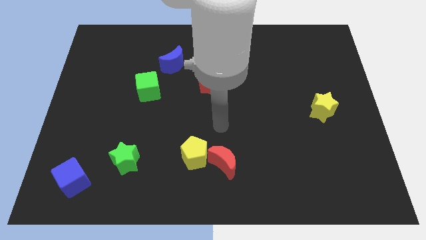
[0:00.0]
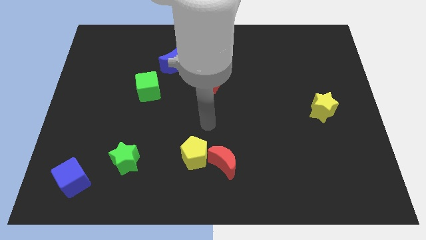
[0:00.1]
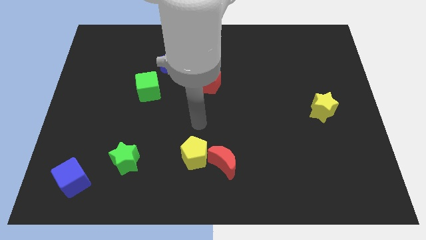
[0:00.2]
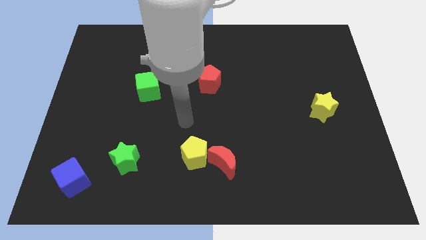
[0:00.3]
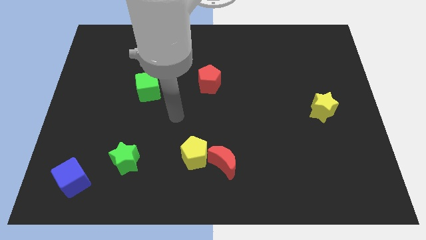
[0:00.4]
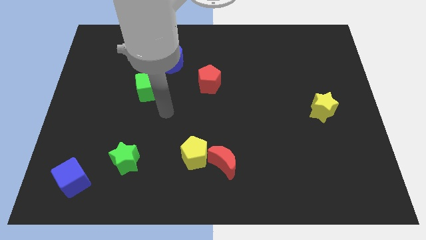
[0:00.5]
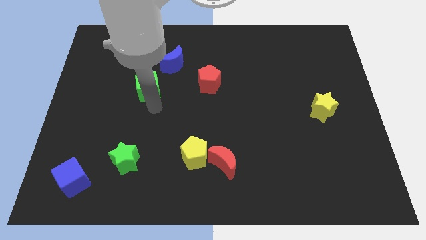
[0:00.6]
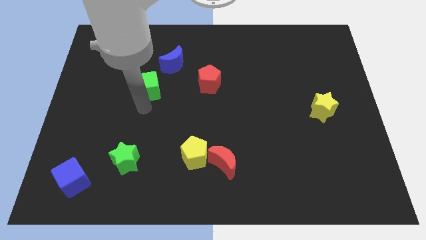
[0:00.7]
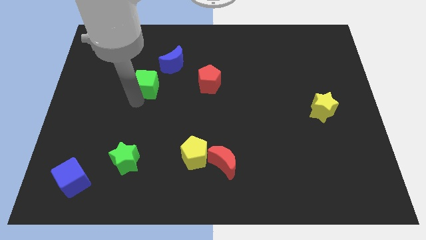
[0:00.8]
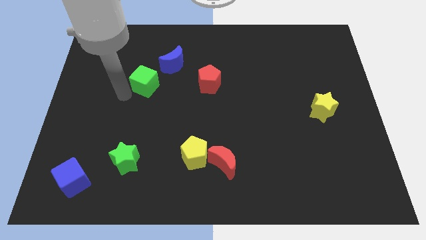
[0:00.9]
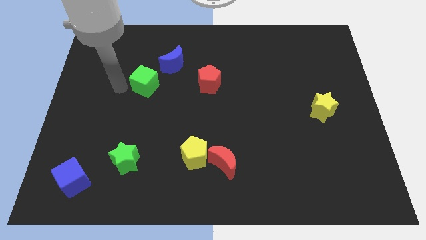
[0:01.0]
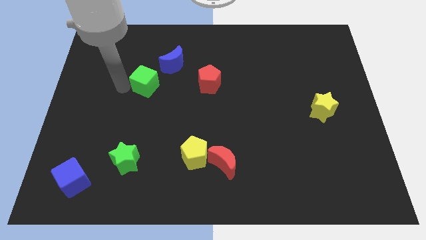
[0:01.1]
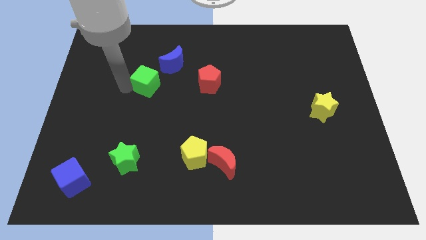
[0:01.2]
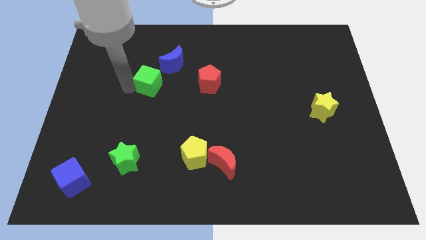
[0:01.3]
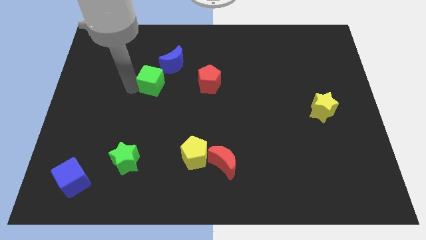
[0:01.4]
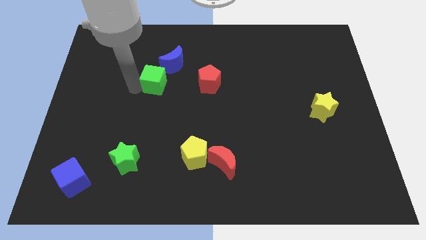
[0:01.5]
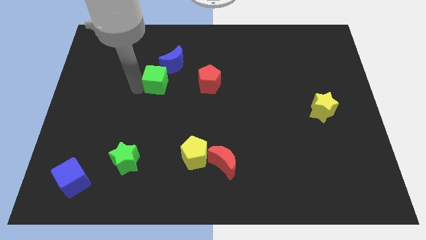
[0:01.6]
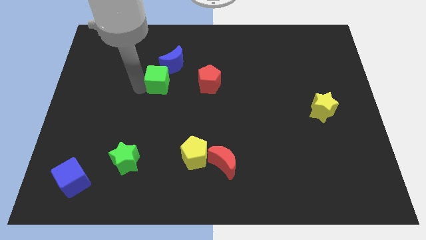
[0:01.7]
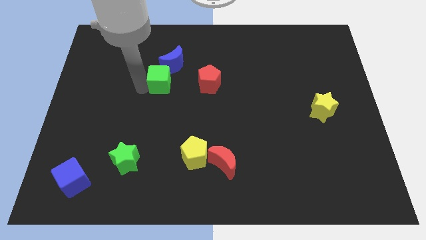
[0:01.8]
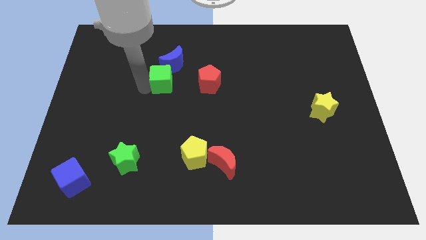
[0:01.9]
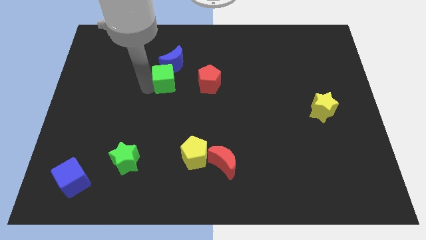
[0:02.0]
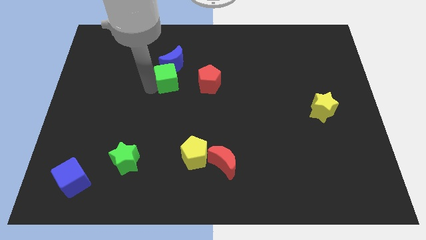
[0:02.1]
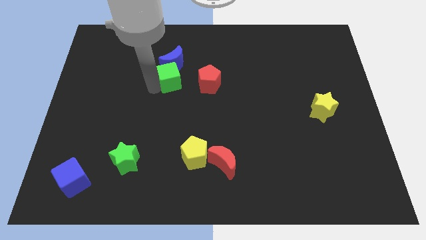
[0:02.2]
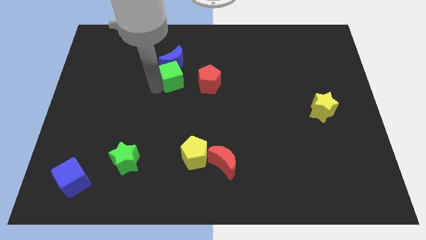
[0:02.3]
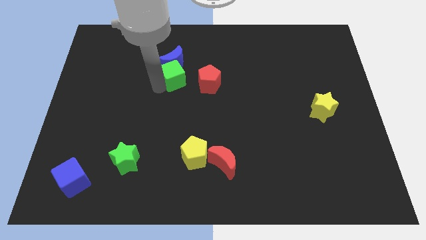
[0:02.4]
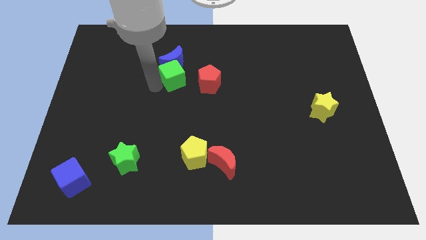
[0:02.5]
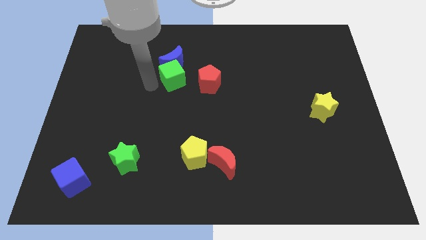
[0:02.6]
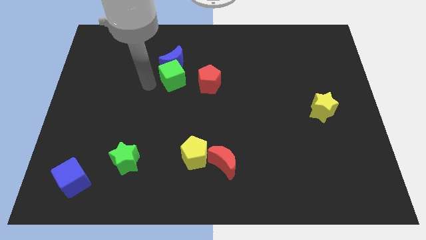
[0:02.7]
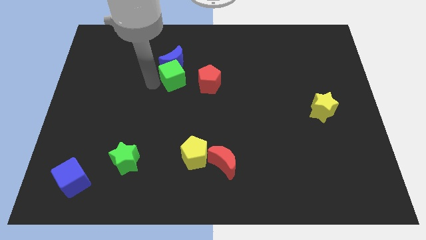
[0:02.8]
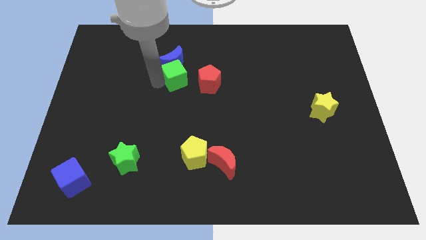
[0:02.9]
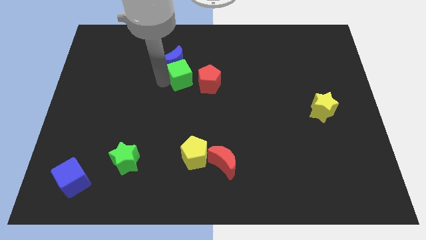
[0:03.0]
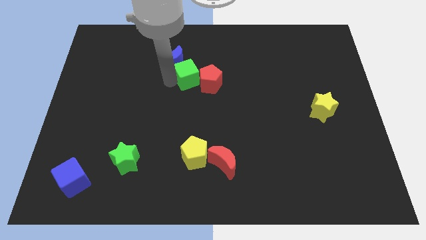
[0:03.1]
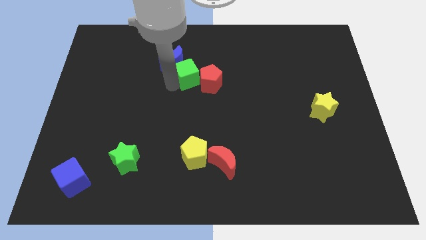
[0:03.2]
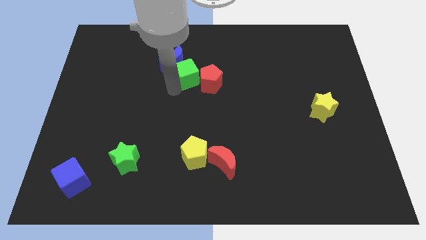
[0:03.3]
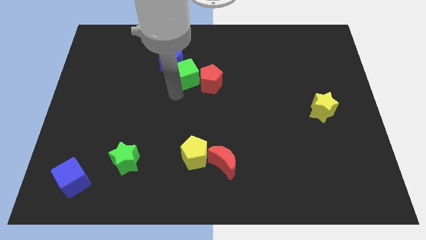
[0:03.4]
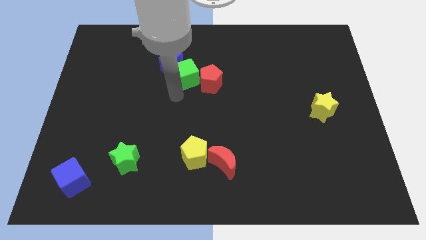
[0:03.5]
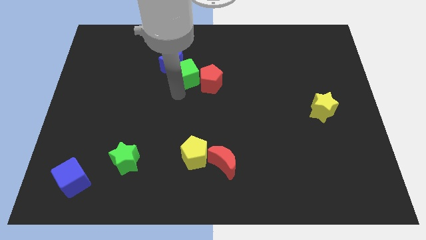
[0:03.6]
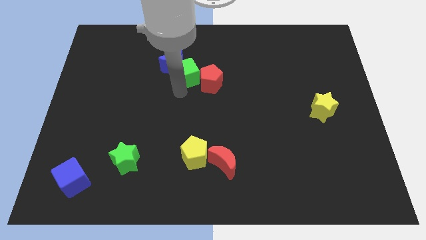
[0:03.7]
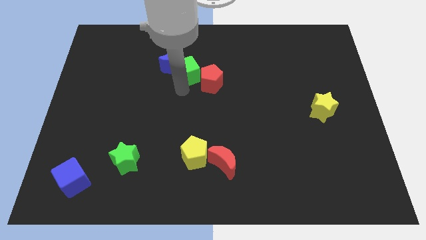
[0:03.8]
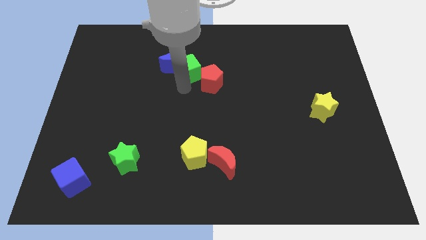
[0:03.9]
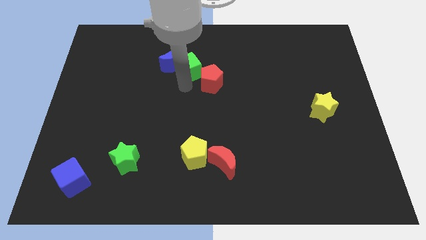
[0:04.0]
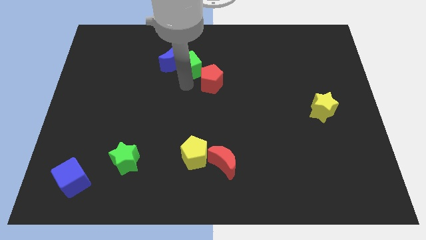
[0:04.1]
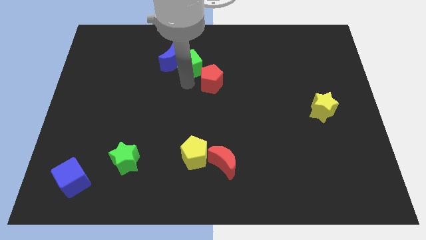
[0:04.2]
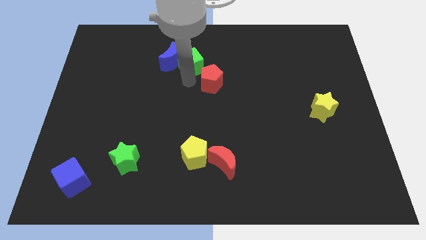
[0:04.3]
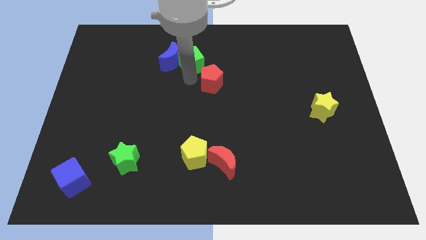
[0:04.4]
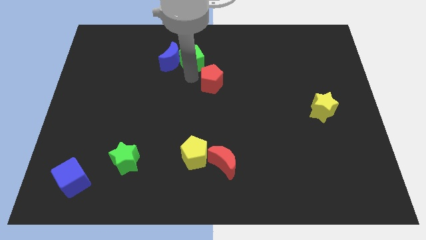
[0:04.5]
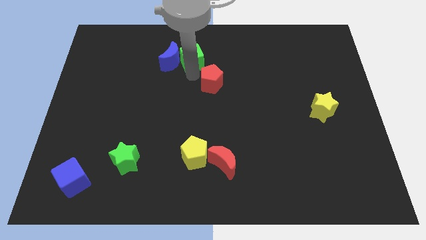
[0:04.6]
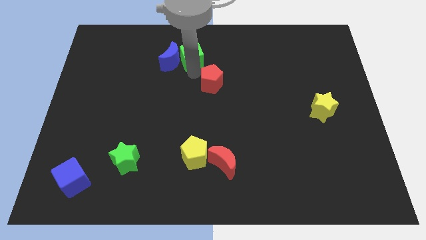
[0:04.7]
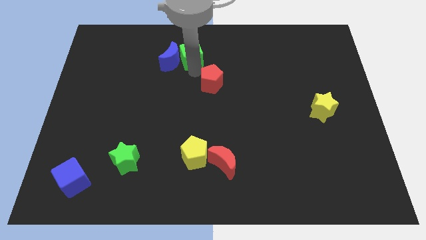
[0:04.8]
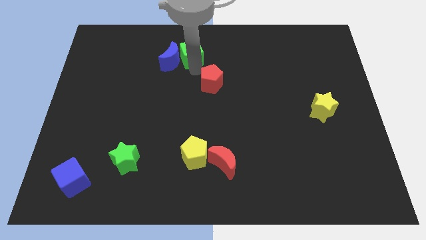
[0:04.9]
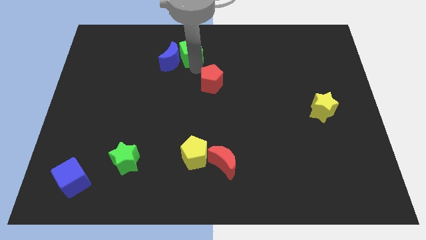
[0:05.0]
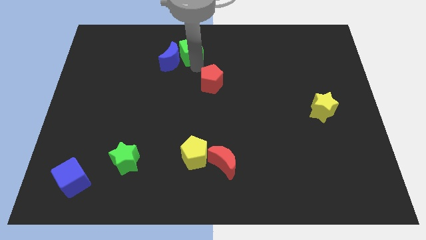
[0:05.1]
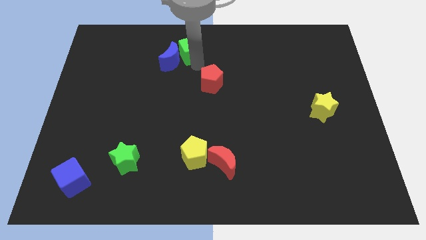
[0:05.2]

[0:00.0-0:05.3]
put the green cube to the towards your base

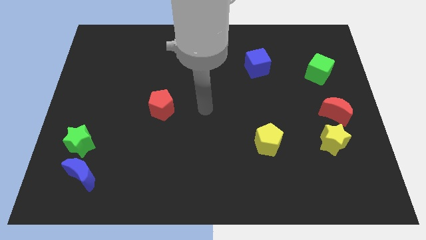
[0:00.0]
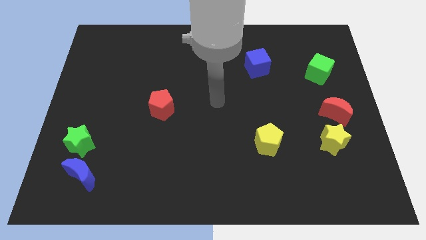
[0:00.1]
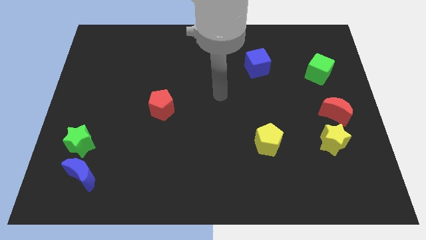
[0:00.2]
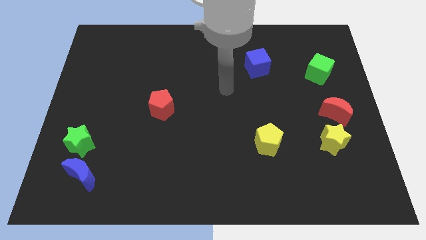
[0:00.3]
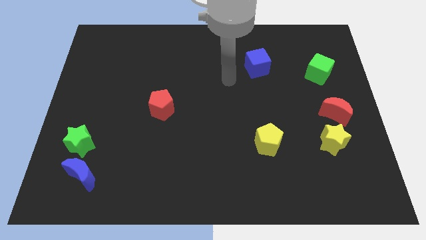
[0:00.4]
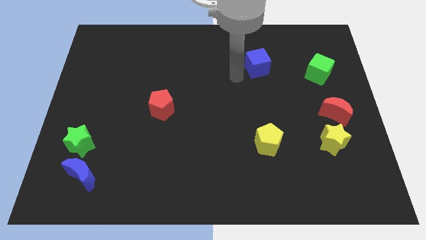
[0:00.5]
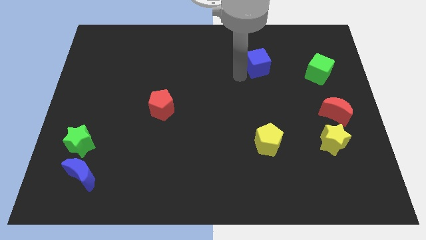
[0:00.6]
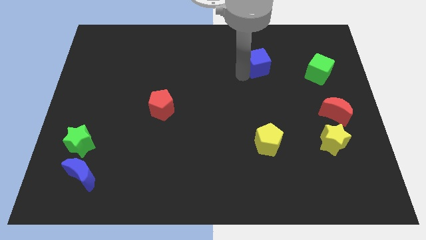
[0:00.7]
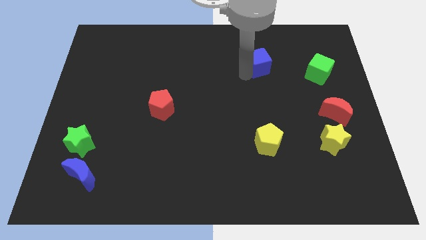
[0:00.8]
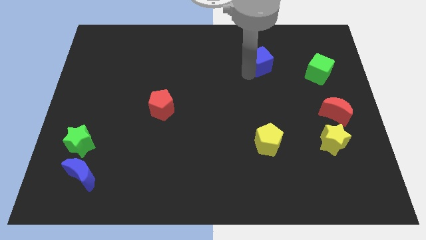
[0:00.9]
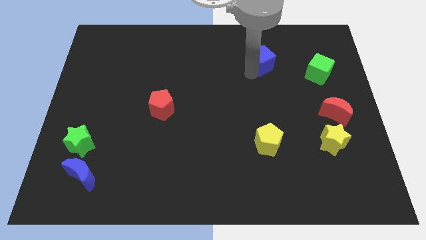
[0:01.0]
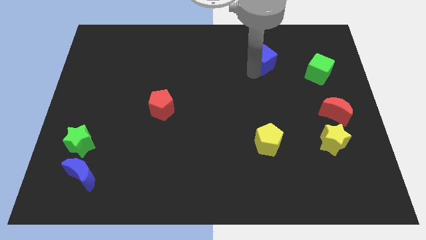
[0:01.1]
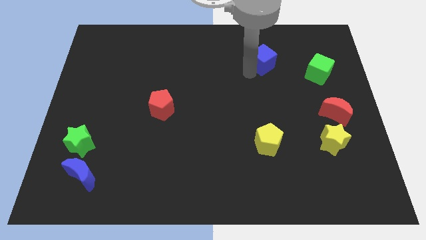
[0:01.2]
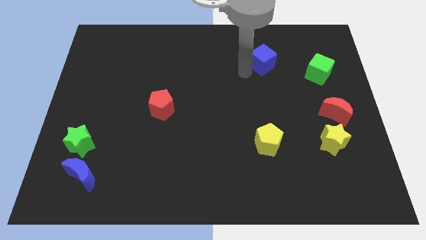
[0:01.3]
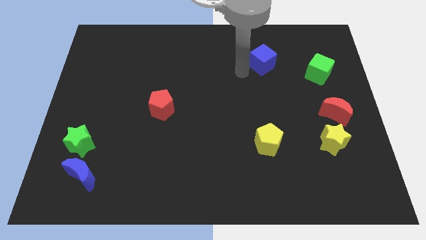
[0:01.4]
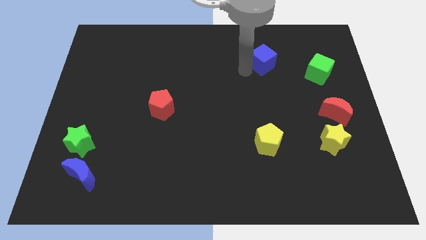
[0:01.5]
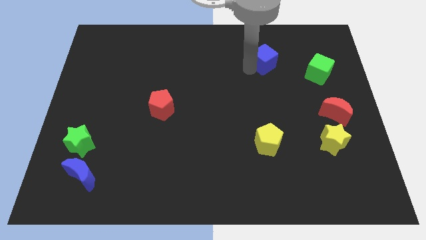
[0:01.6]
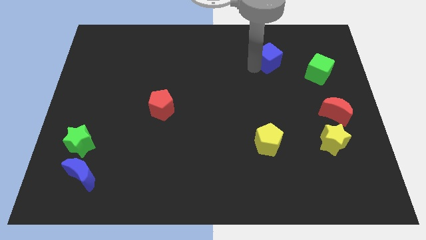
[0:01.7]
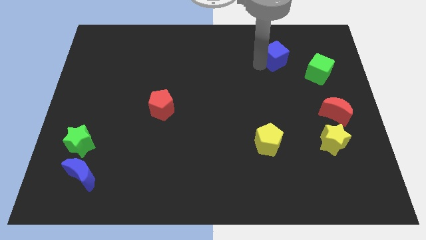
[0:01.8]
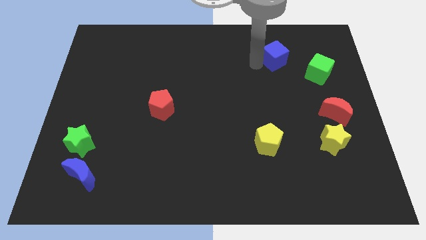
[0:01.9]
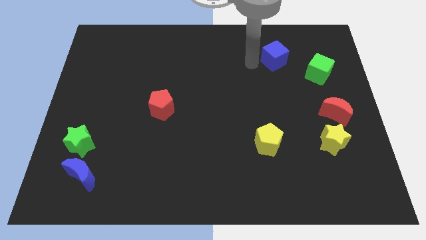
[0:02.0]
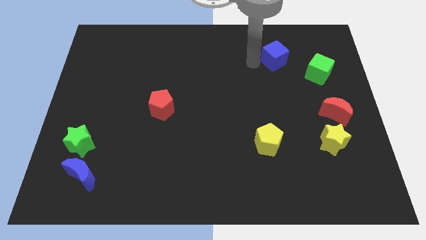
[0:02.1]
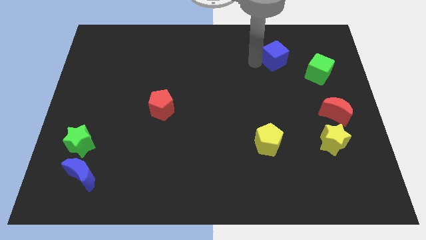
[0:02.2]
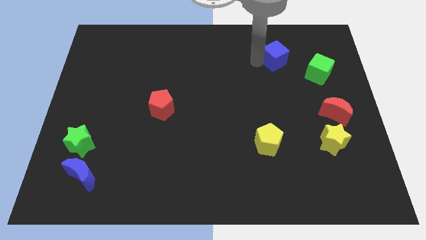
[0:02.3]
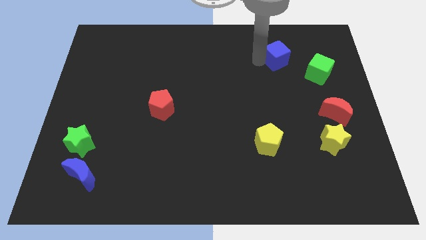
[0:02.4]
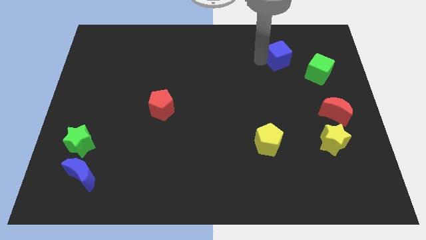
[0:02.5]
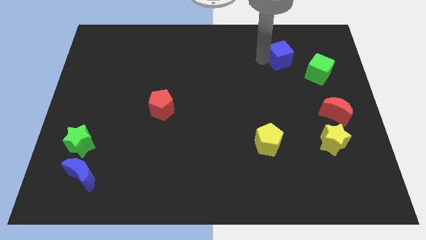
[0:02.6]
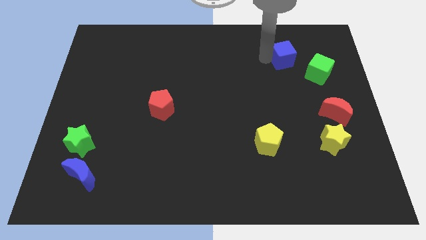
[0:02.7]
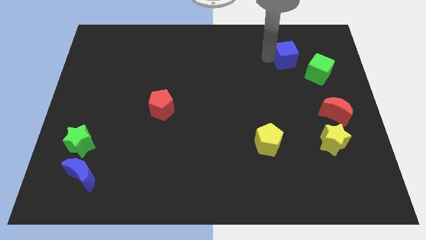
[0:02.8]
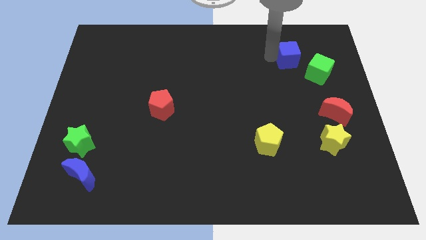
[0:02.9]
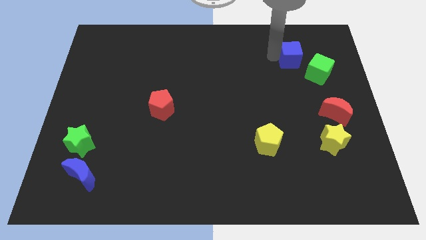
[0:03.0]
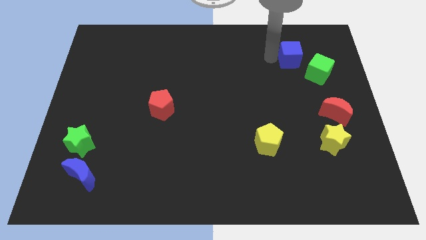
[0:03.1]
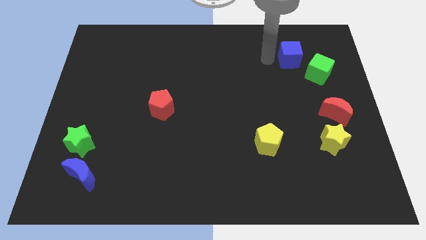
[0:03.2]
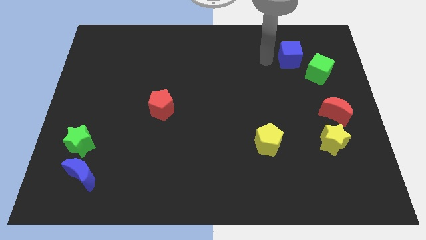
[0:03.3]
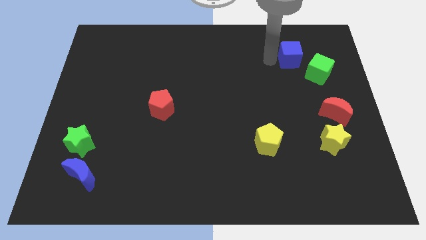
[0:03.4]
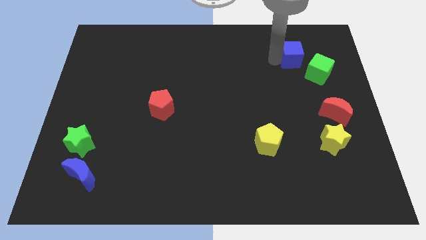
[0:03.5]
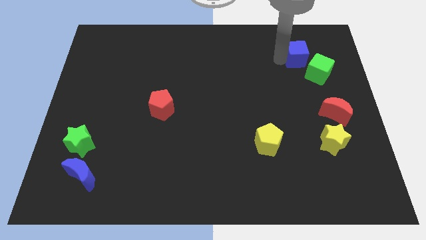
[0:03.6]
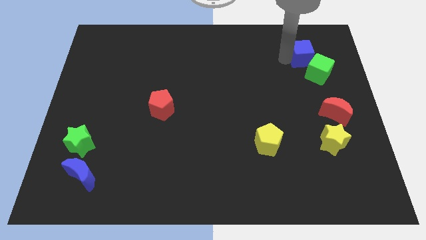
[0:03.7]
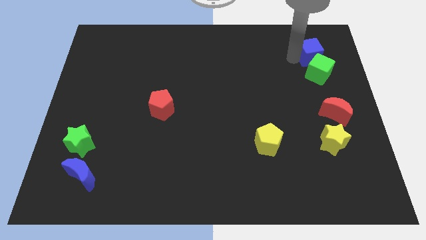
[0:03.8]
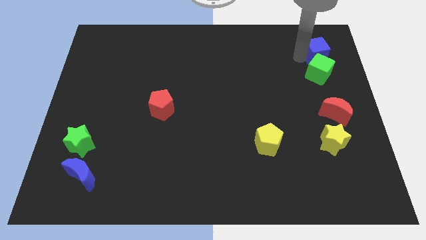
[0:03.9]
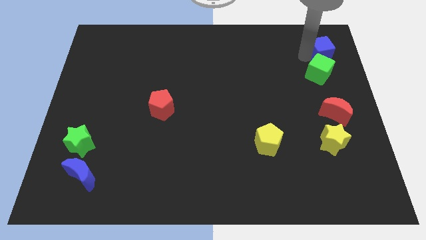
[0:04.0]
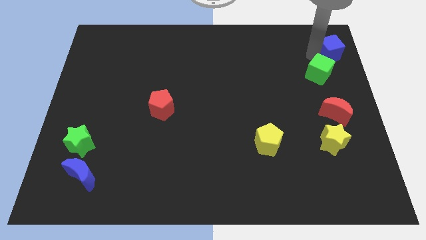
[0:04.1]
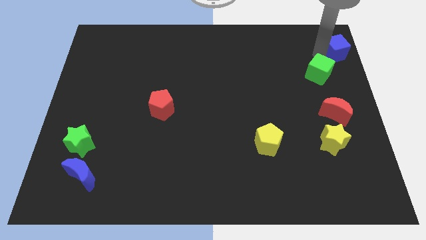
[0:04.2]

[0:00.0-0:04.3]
slide the blue cube to the top right of the board
